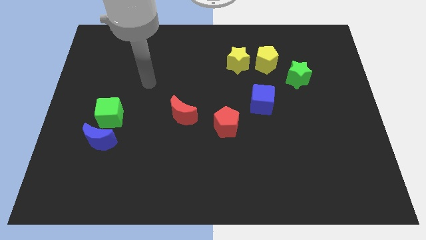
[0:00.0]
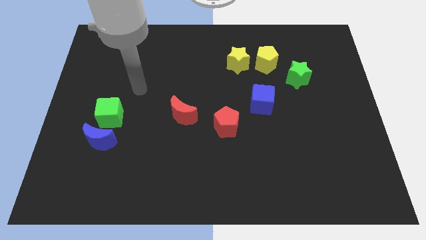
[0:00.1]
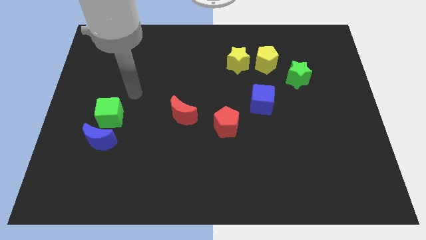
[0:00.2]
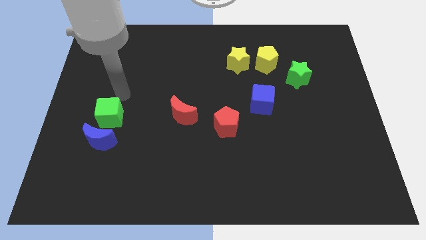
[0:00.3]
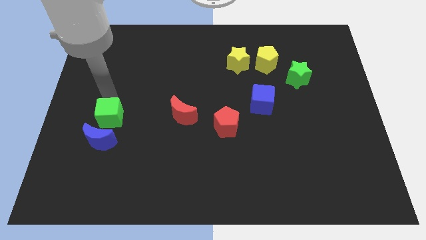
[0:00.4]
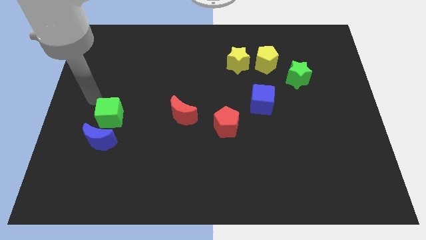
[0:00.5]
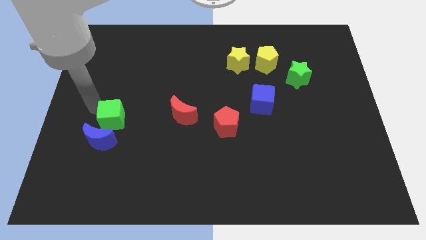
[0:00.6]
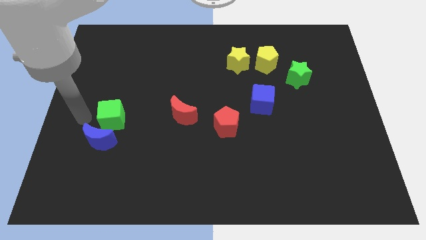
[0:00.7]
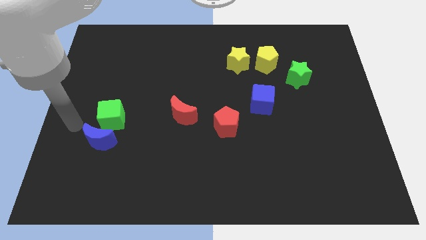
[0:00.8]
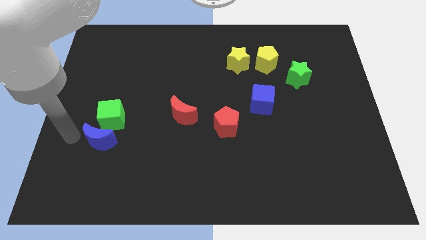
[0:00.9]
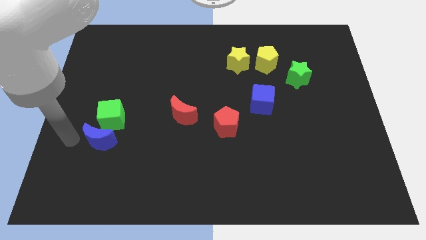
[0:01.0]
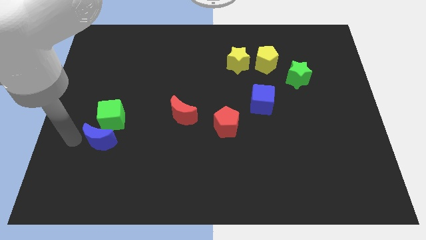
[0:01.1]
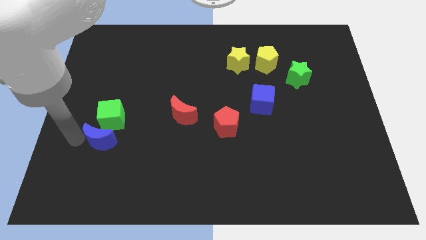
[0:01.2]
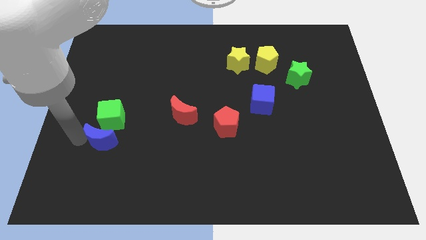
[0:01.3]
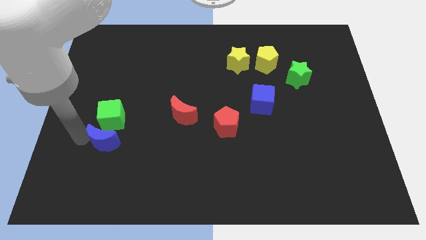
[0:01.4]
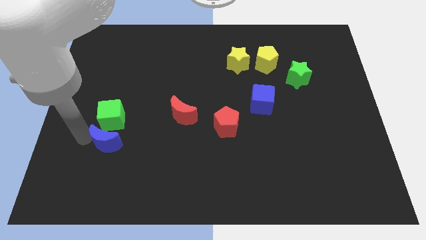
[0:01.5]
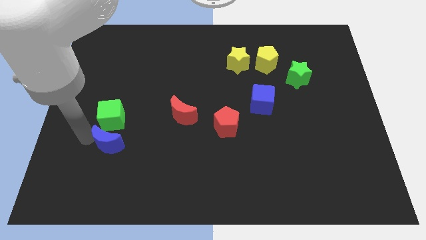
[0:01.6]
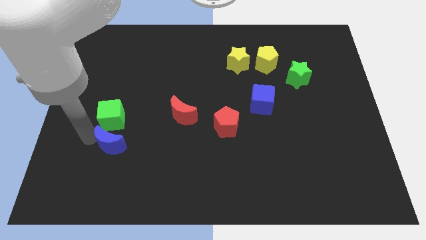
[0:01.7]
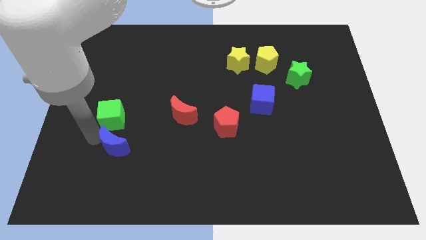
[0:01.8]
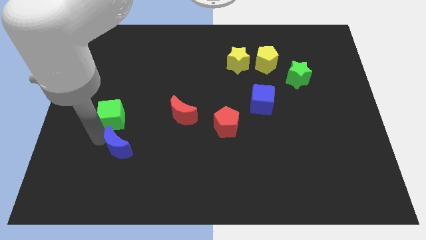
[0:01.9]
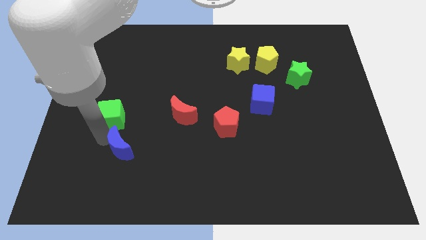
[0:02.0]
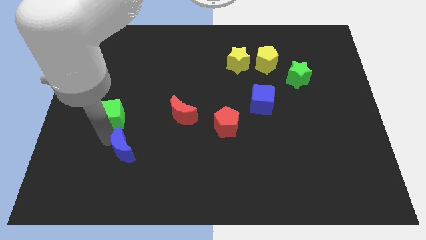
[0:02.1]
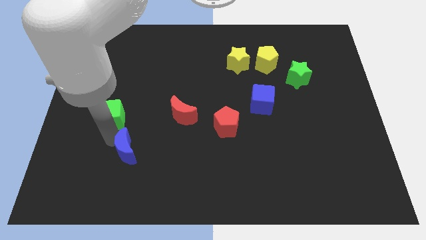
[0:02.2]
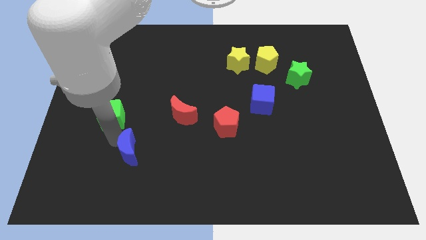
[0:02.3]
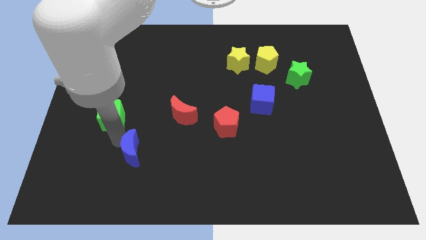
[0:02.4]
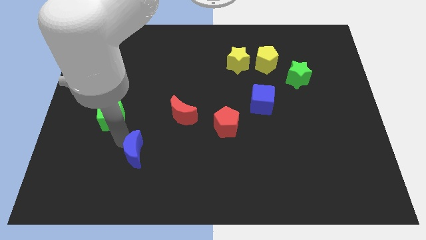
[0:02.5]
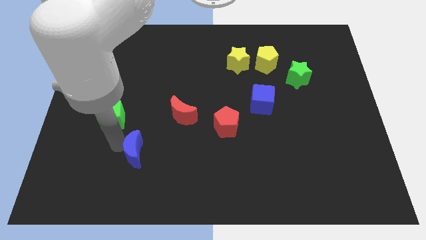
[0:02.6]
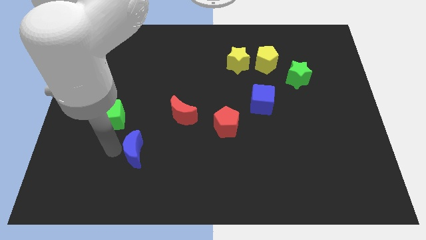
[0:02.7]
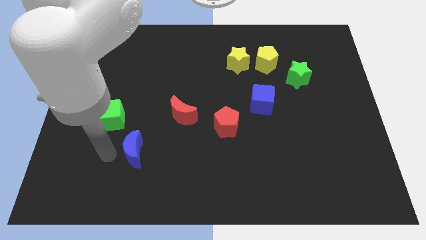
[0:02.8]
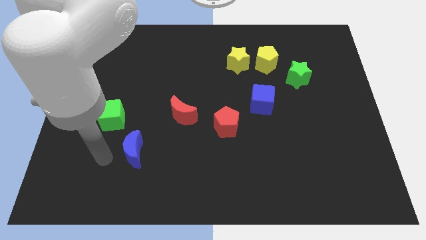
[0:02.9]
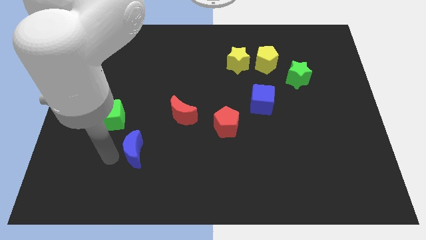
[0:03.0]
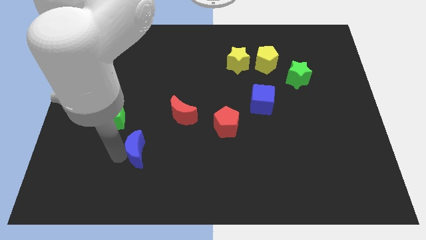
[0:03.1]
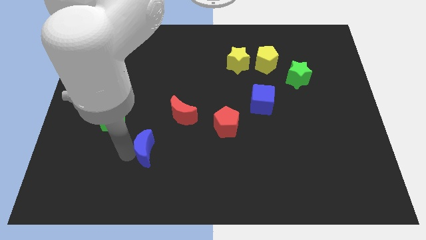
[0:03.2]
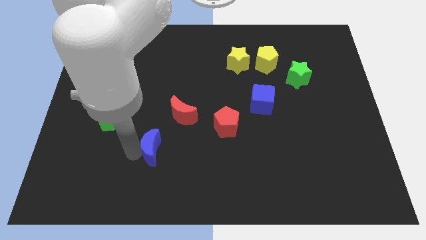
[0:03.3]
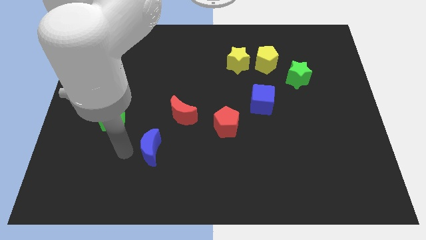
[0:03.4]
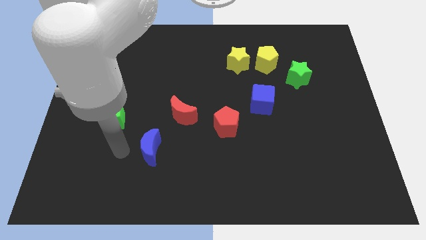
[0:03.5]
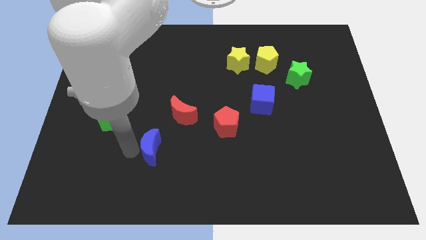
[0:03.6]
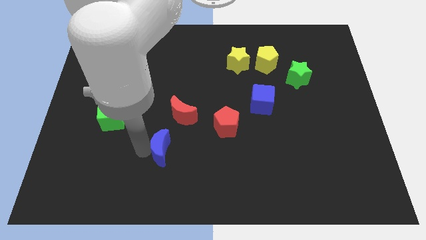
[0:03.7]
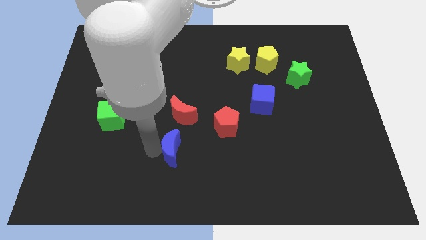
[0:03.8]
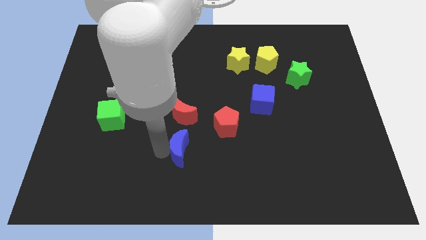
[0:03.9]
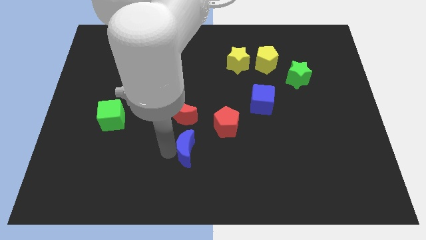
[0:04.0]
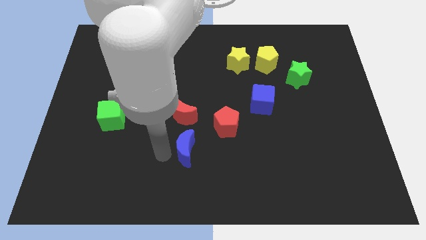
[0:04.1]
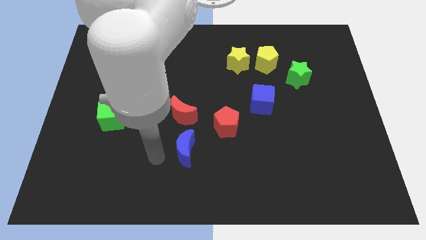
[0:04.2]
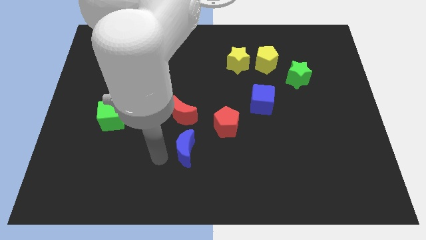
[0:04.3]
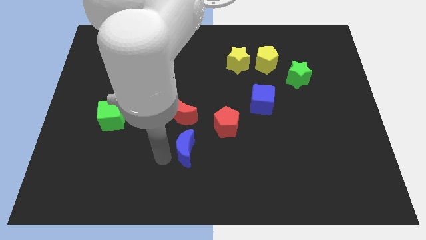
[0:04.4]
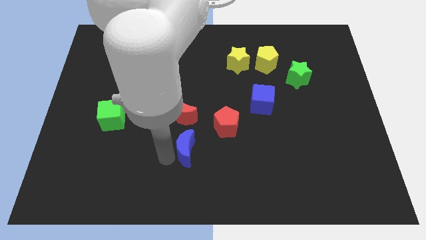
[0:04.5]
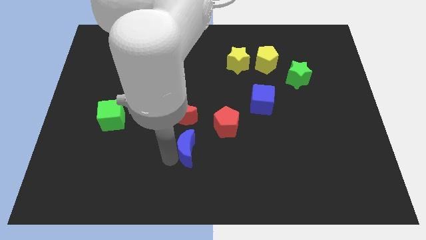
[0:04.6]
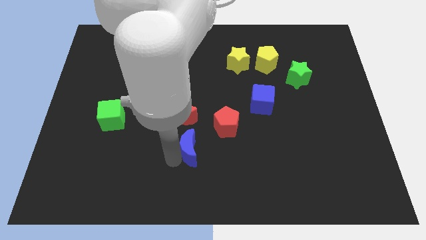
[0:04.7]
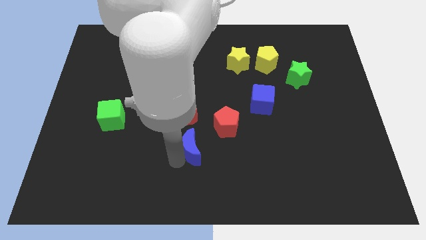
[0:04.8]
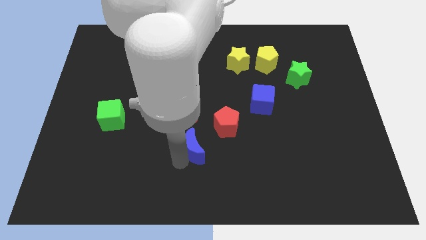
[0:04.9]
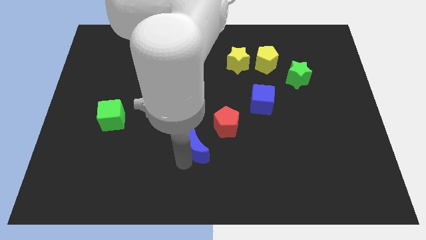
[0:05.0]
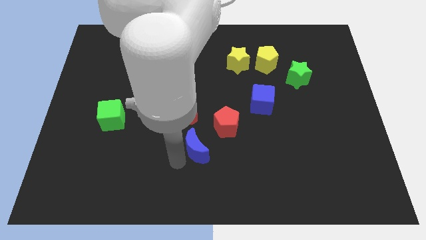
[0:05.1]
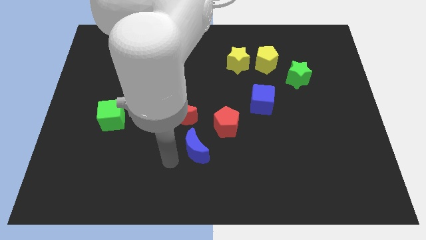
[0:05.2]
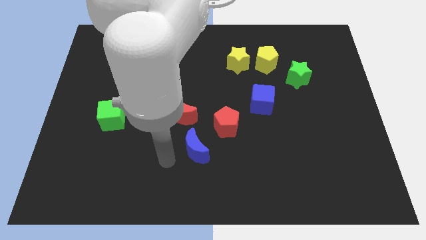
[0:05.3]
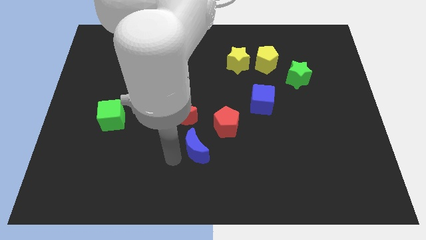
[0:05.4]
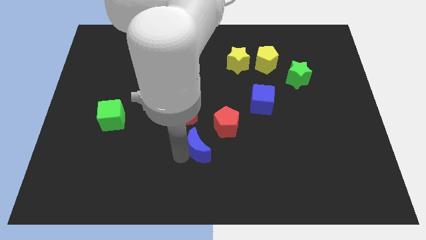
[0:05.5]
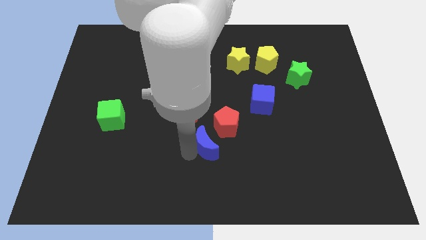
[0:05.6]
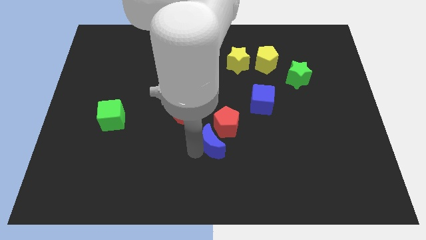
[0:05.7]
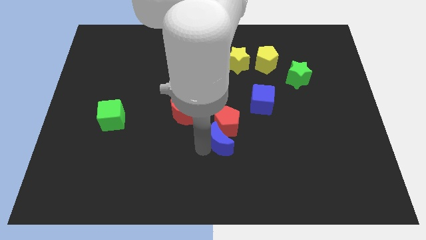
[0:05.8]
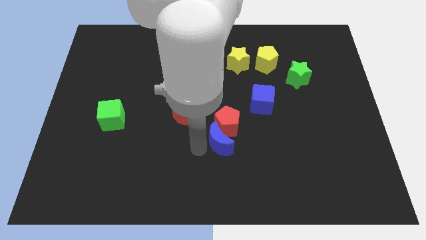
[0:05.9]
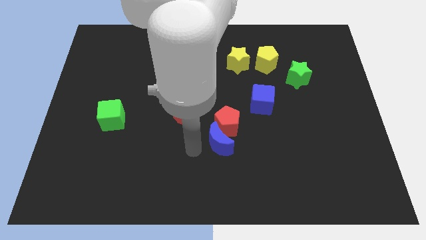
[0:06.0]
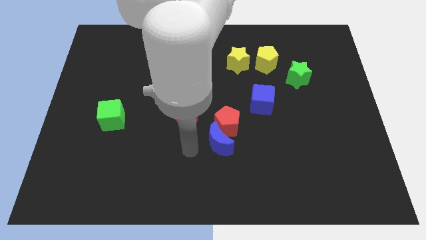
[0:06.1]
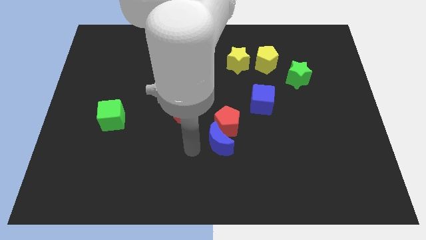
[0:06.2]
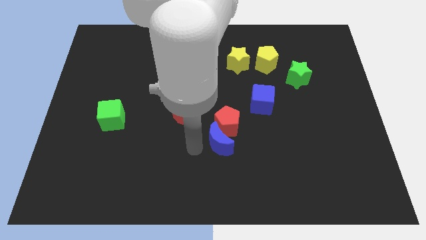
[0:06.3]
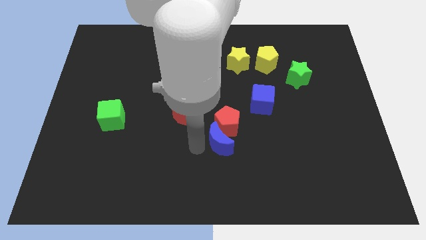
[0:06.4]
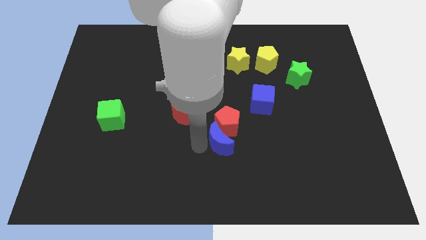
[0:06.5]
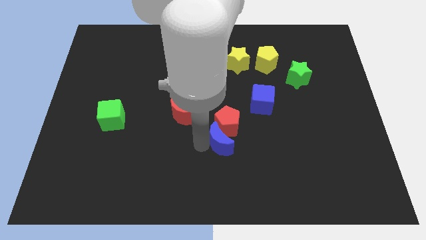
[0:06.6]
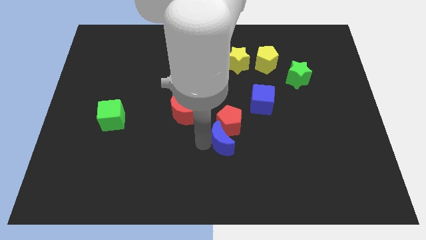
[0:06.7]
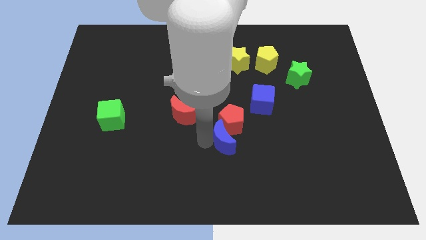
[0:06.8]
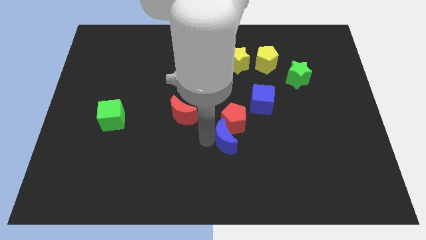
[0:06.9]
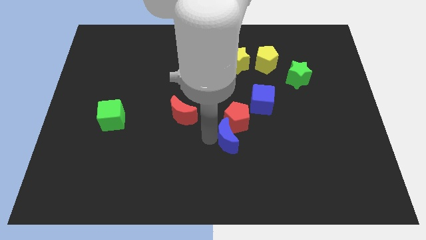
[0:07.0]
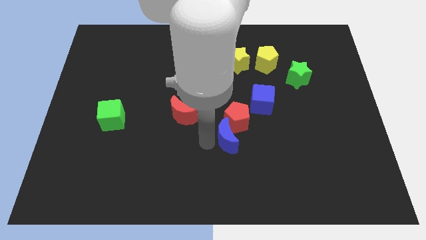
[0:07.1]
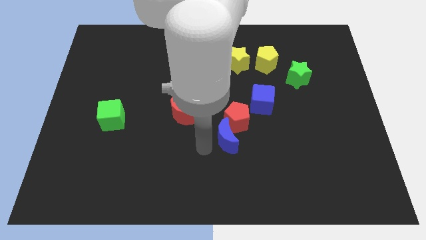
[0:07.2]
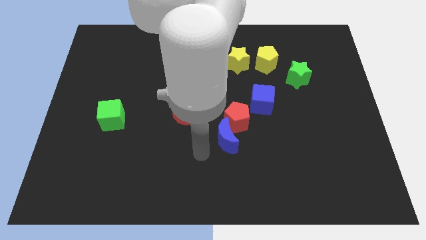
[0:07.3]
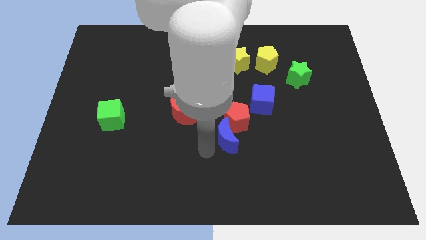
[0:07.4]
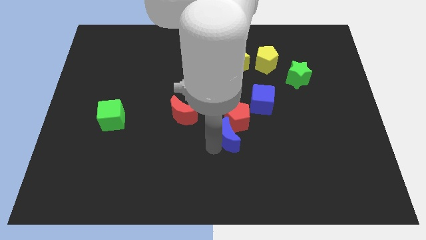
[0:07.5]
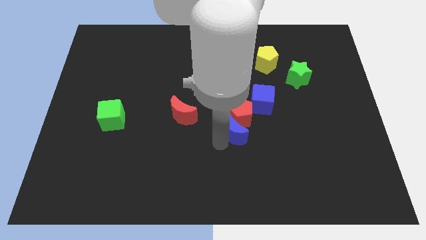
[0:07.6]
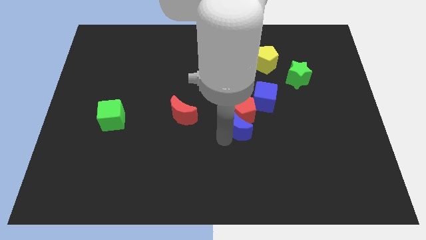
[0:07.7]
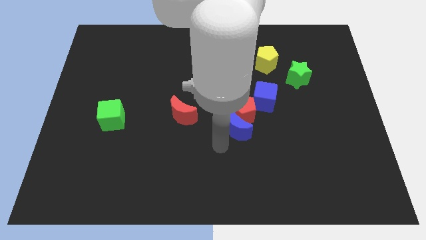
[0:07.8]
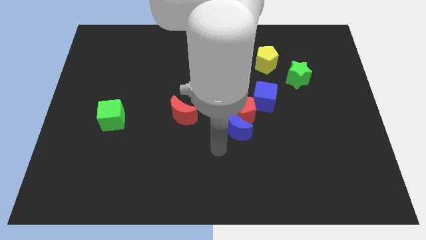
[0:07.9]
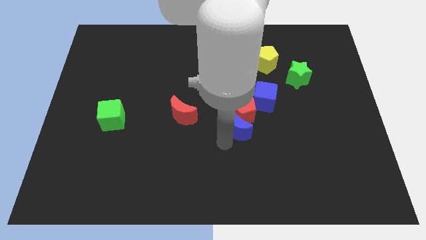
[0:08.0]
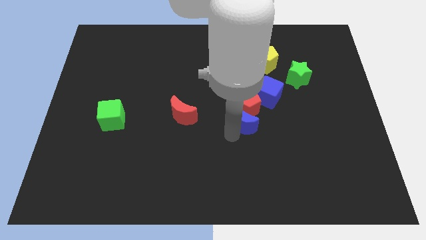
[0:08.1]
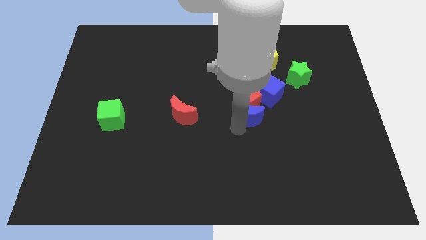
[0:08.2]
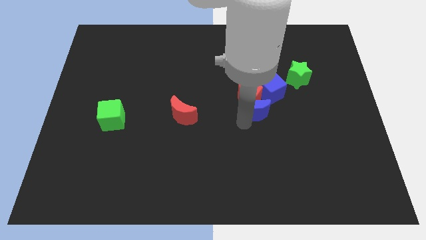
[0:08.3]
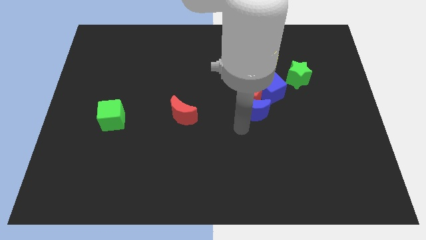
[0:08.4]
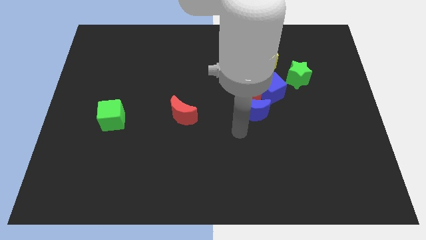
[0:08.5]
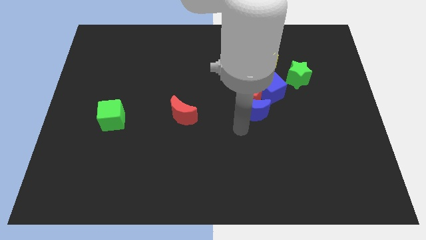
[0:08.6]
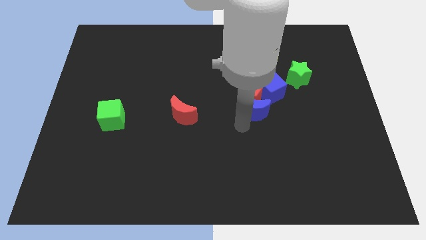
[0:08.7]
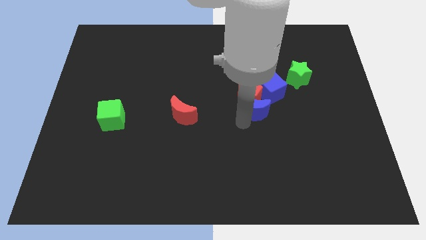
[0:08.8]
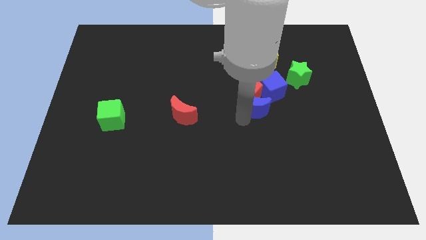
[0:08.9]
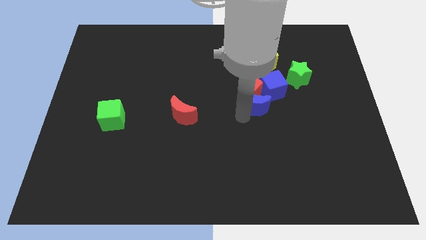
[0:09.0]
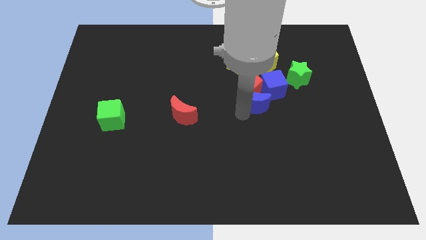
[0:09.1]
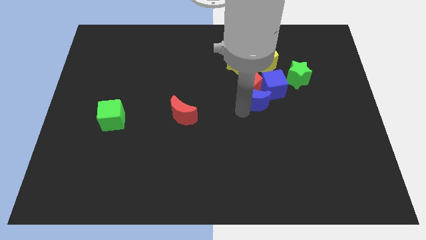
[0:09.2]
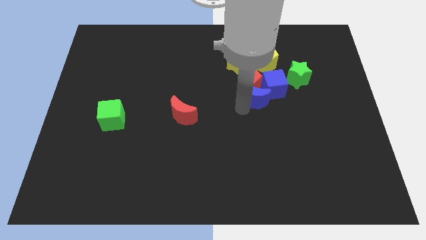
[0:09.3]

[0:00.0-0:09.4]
move the blue moon next to the blue cube
